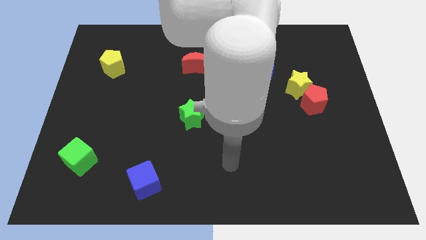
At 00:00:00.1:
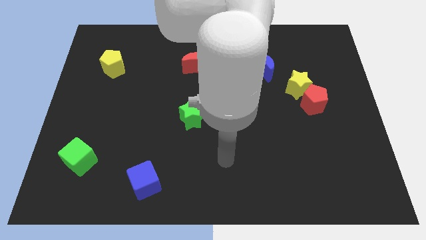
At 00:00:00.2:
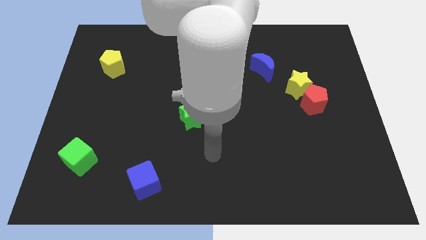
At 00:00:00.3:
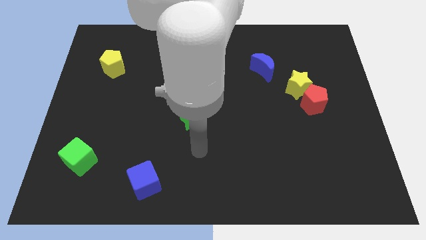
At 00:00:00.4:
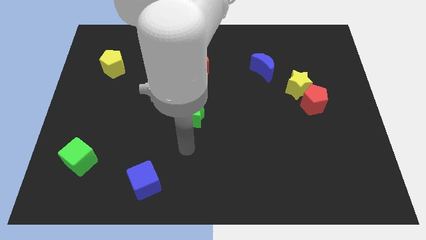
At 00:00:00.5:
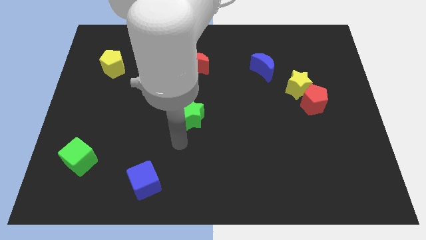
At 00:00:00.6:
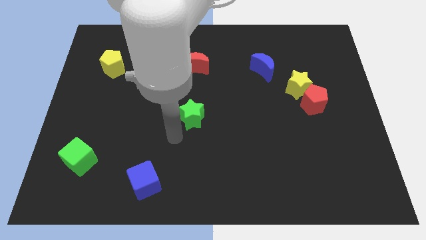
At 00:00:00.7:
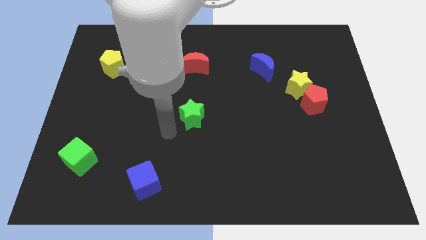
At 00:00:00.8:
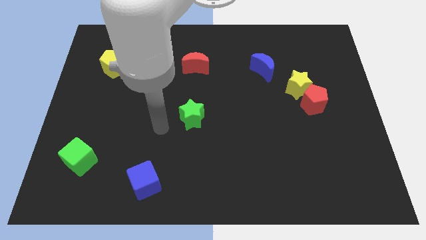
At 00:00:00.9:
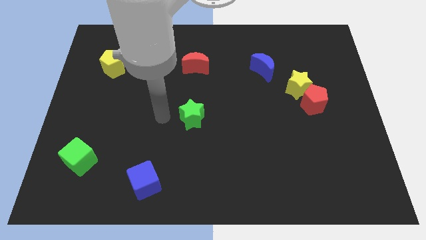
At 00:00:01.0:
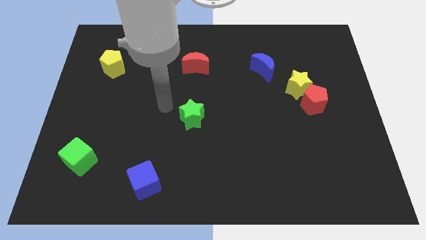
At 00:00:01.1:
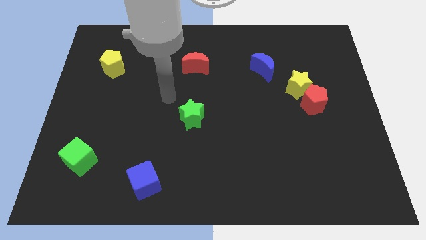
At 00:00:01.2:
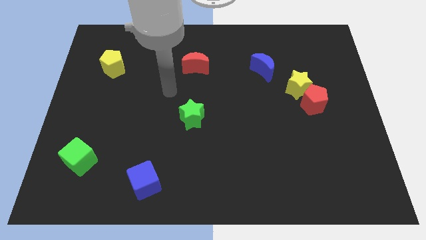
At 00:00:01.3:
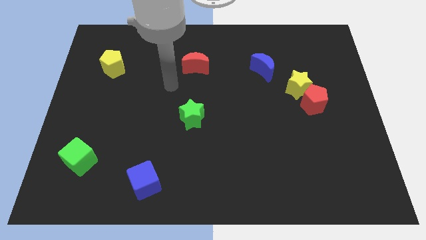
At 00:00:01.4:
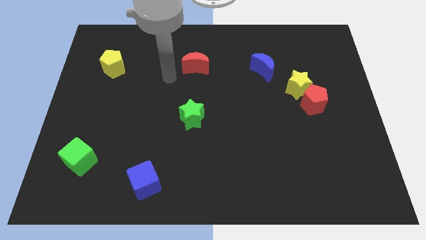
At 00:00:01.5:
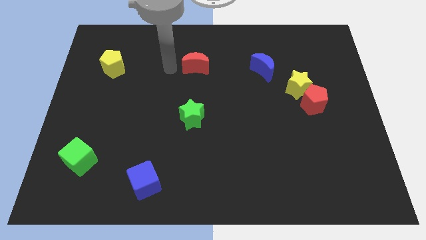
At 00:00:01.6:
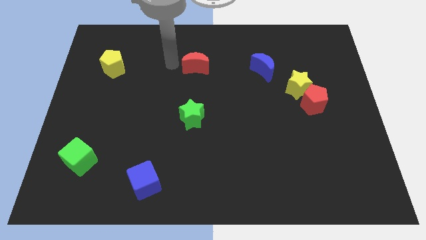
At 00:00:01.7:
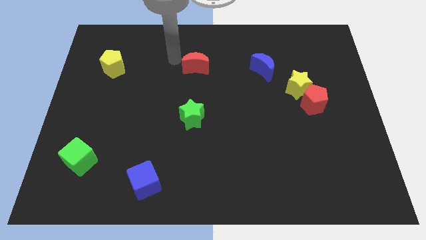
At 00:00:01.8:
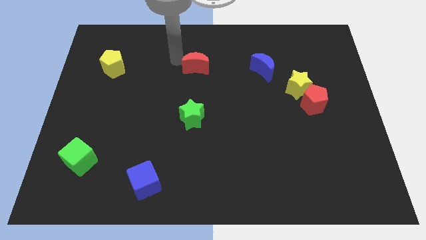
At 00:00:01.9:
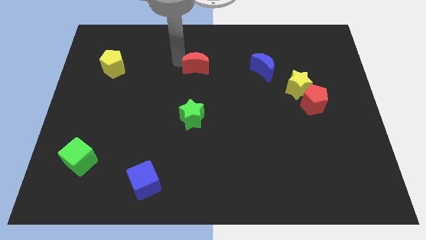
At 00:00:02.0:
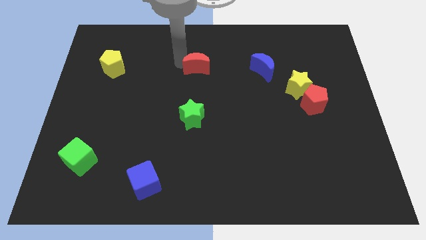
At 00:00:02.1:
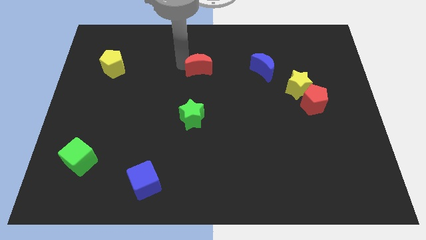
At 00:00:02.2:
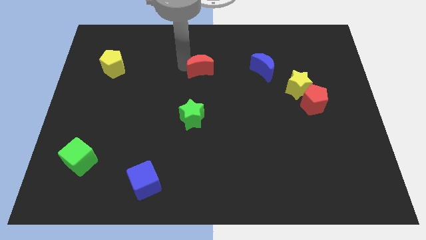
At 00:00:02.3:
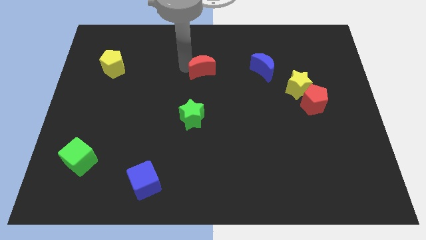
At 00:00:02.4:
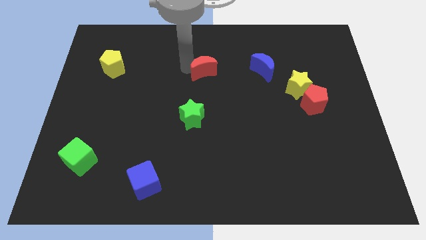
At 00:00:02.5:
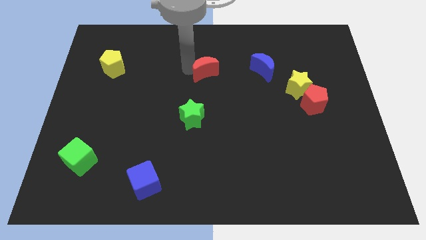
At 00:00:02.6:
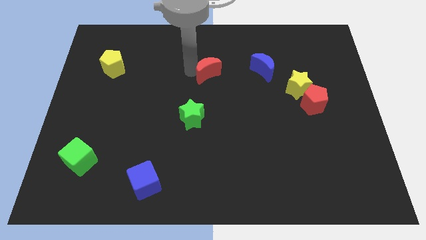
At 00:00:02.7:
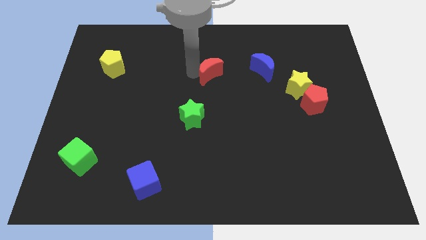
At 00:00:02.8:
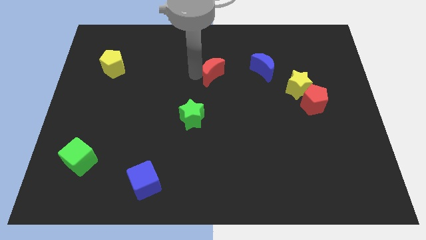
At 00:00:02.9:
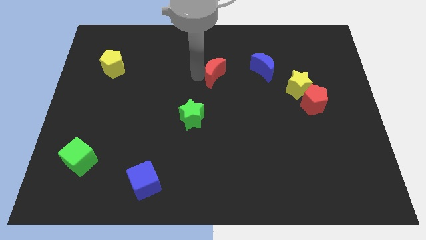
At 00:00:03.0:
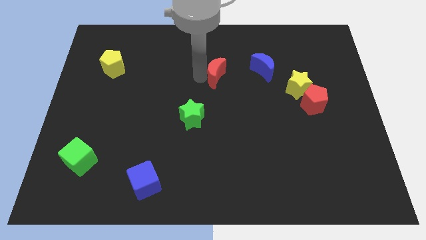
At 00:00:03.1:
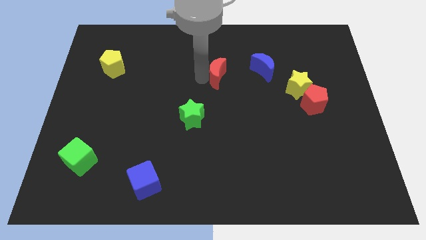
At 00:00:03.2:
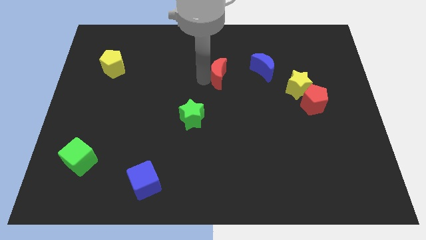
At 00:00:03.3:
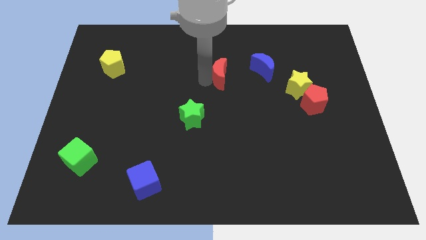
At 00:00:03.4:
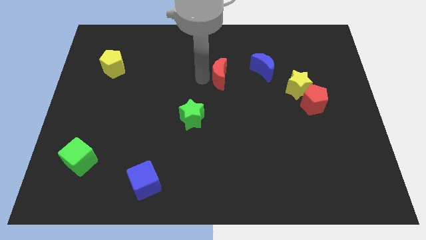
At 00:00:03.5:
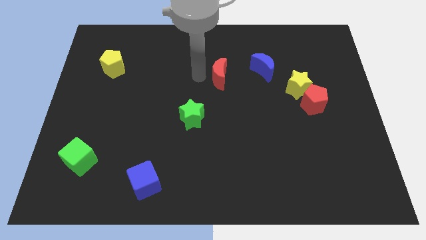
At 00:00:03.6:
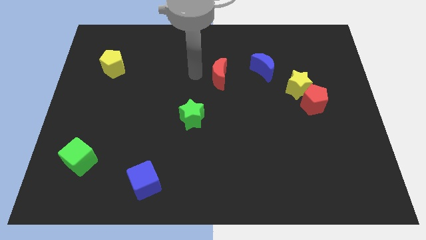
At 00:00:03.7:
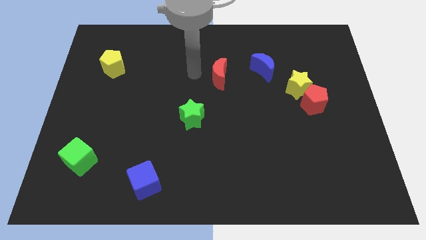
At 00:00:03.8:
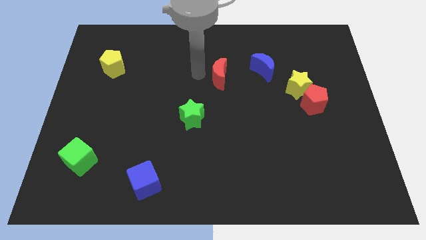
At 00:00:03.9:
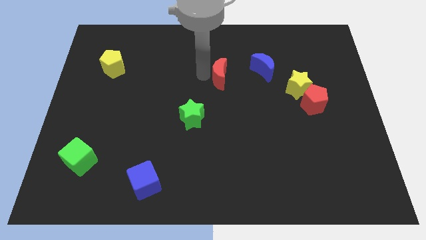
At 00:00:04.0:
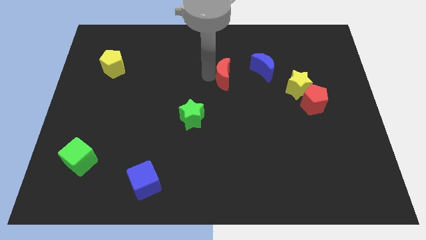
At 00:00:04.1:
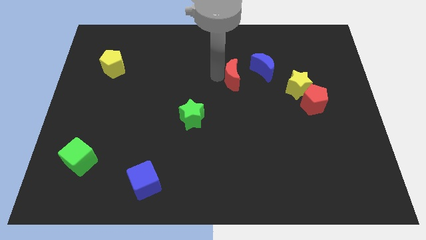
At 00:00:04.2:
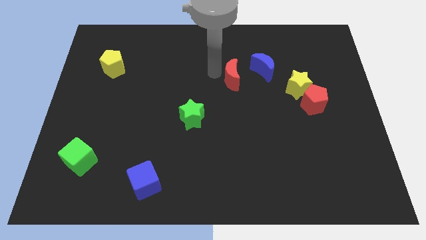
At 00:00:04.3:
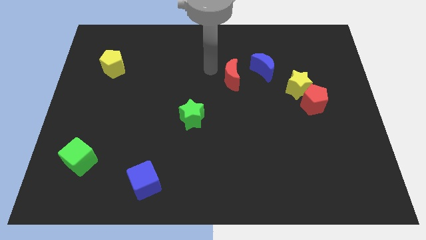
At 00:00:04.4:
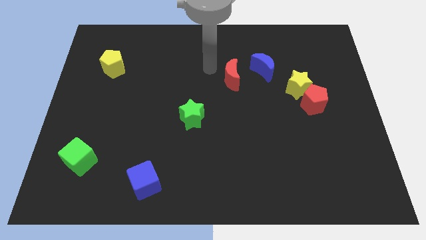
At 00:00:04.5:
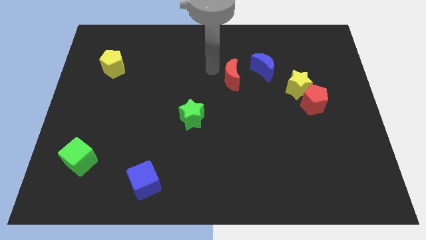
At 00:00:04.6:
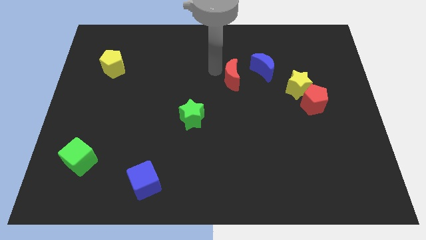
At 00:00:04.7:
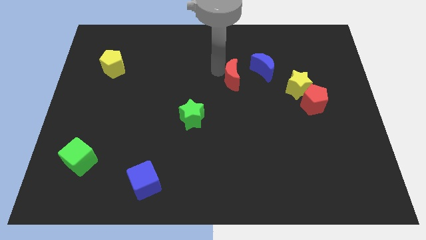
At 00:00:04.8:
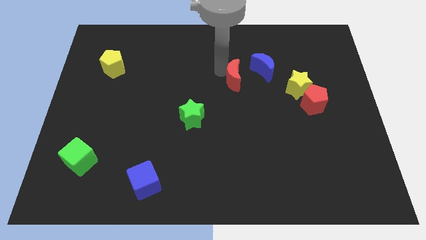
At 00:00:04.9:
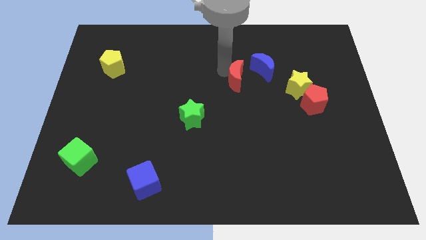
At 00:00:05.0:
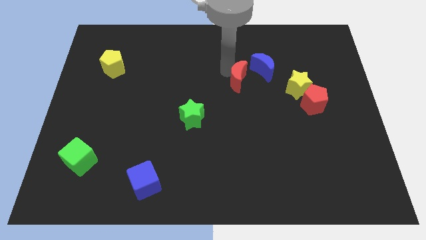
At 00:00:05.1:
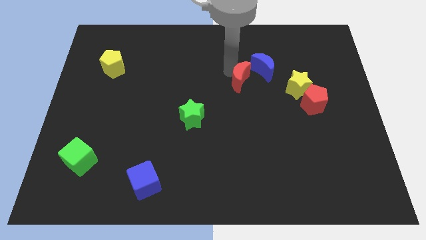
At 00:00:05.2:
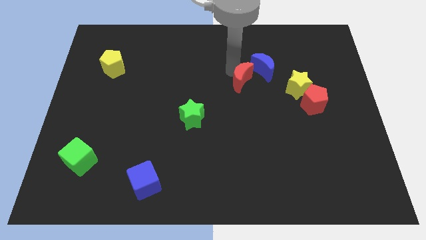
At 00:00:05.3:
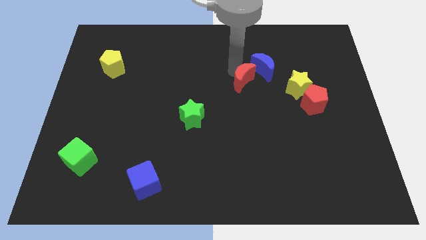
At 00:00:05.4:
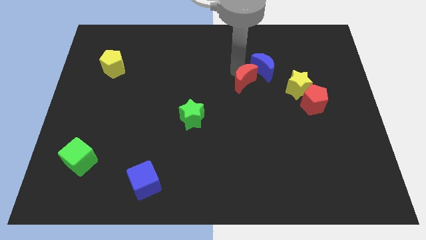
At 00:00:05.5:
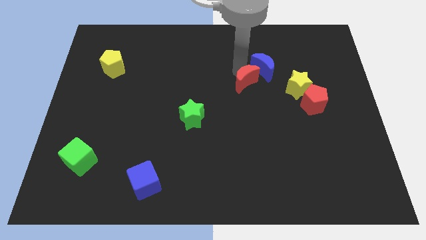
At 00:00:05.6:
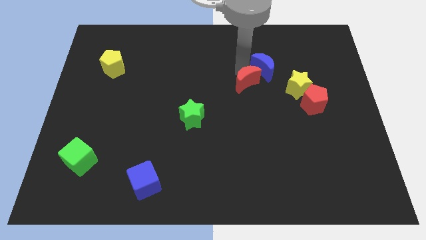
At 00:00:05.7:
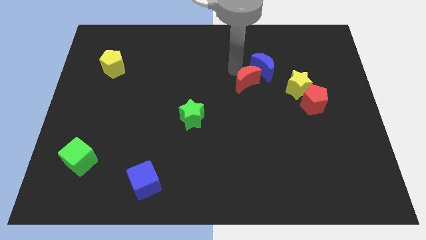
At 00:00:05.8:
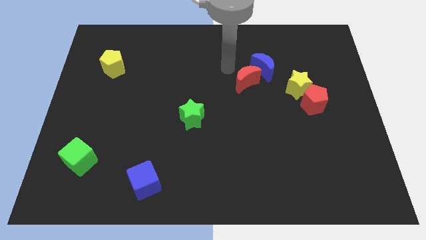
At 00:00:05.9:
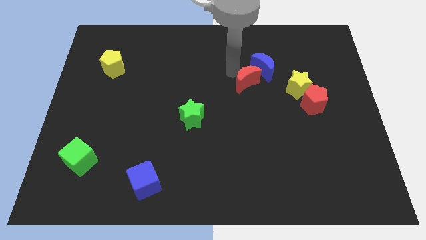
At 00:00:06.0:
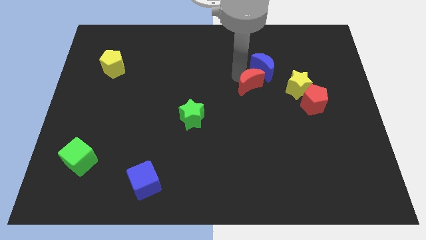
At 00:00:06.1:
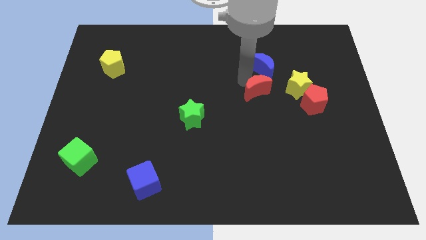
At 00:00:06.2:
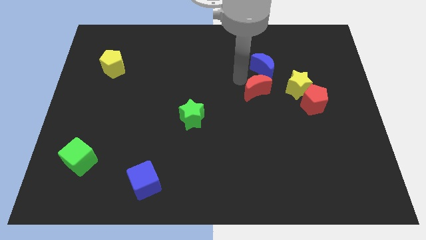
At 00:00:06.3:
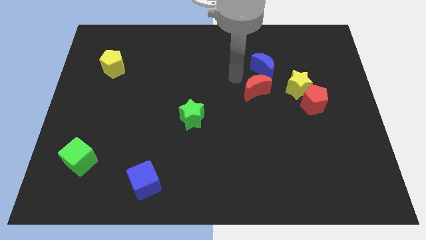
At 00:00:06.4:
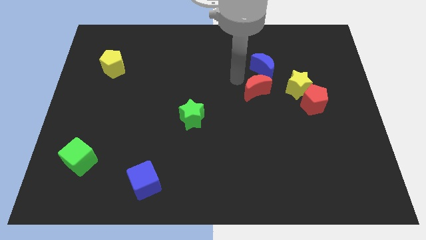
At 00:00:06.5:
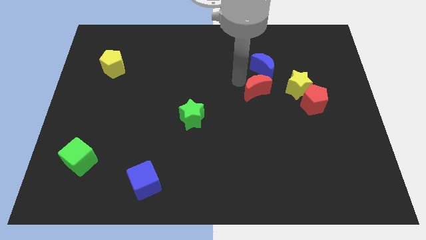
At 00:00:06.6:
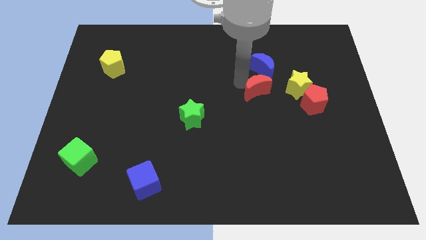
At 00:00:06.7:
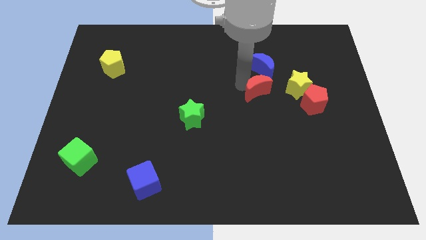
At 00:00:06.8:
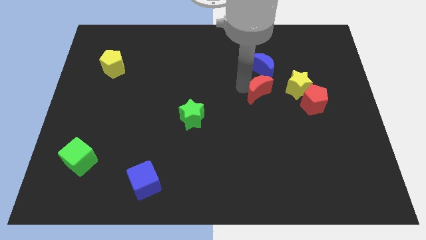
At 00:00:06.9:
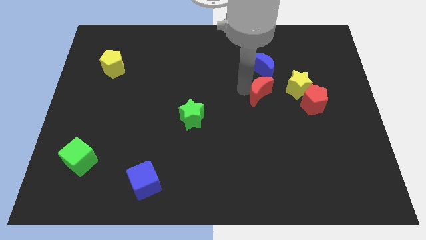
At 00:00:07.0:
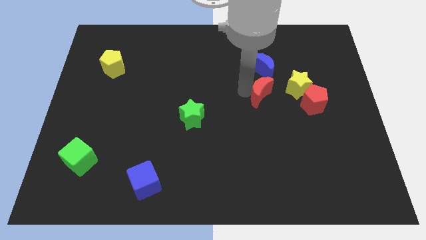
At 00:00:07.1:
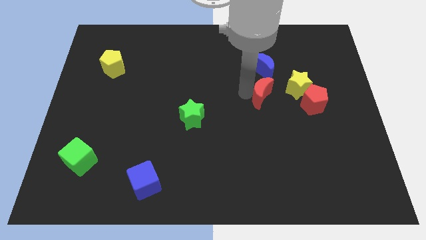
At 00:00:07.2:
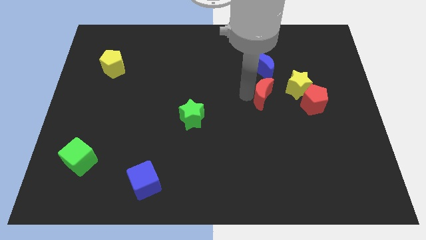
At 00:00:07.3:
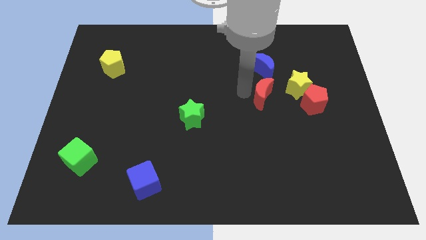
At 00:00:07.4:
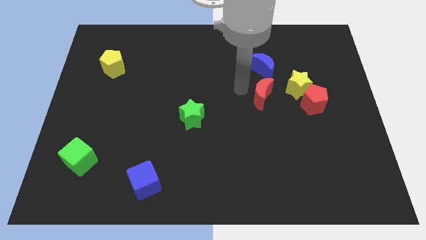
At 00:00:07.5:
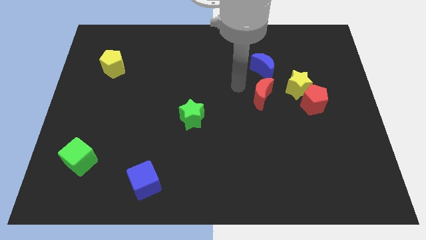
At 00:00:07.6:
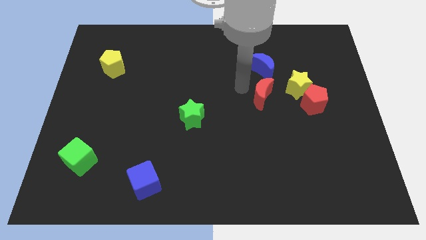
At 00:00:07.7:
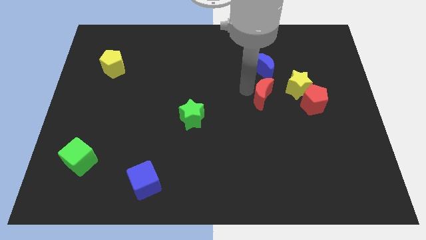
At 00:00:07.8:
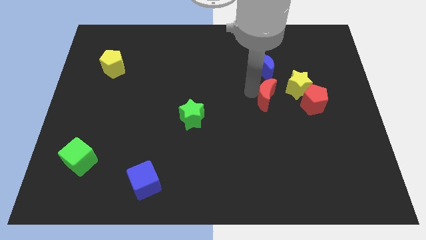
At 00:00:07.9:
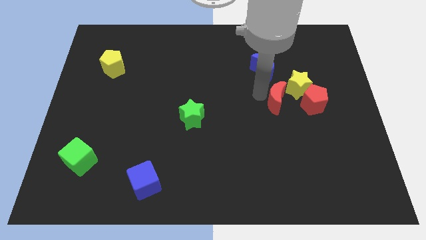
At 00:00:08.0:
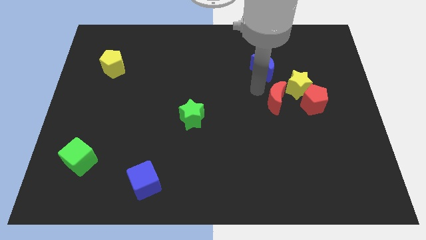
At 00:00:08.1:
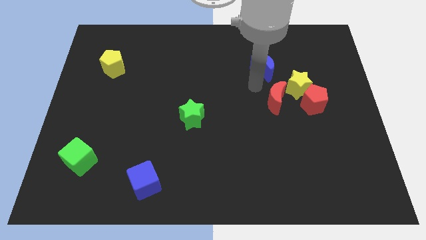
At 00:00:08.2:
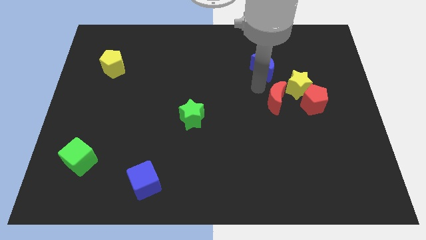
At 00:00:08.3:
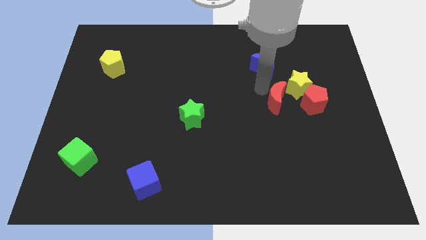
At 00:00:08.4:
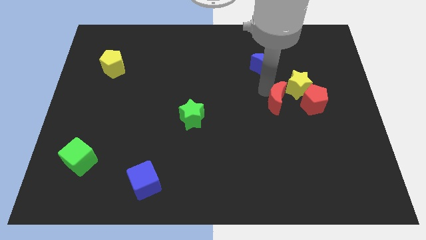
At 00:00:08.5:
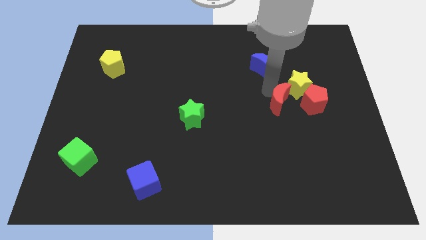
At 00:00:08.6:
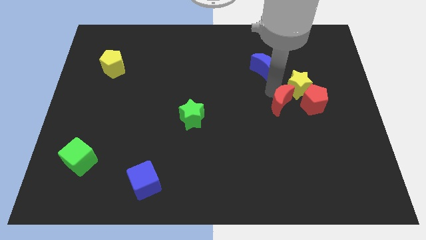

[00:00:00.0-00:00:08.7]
move the red moon to the bottom side of the yellow star
